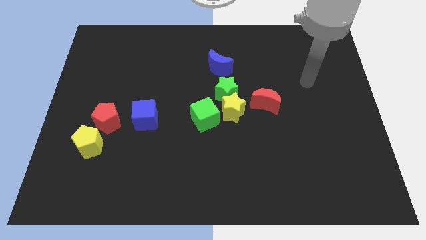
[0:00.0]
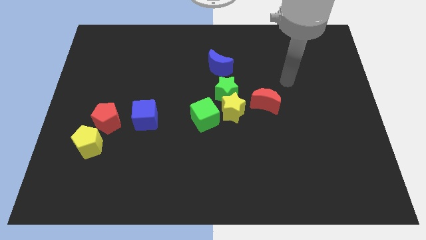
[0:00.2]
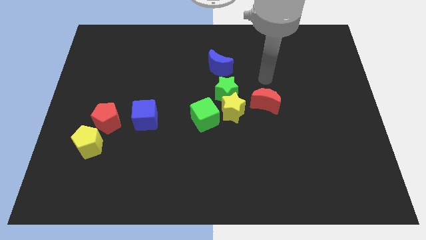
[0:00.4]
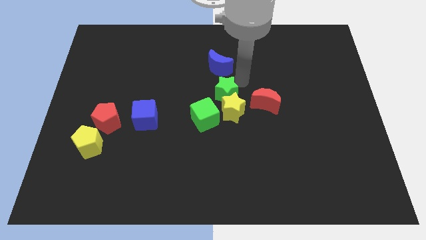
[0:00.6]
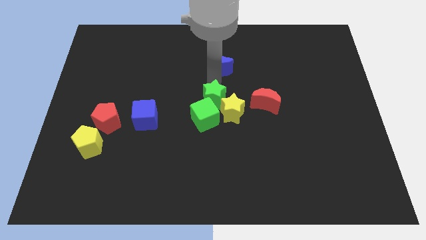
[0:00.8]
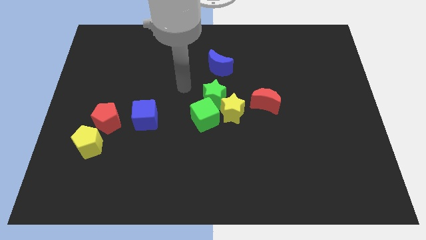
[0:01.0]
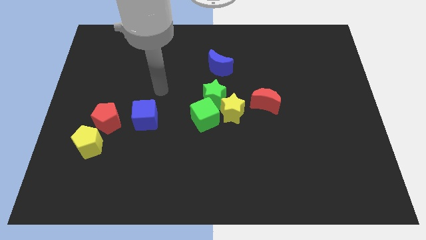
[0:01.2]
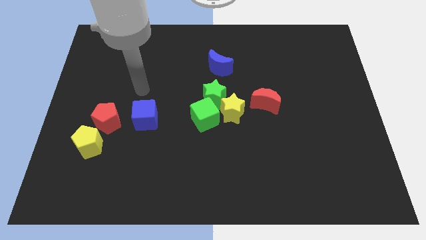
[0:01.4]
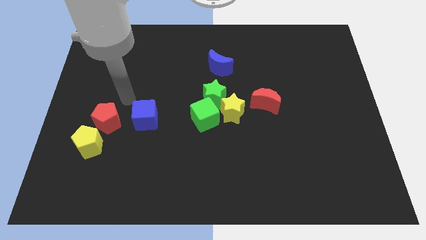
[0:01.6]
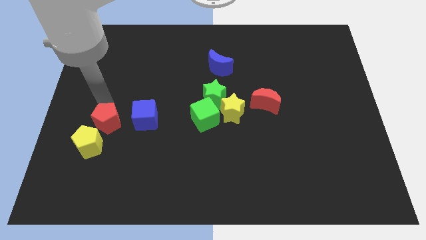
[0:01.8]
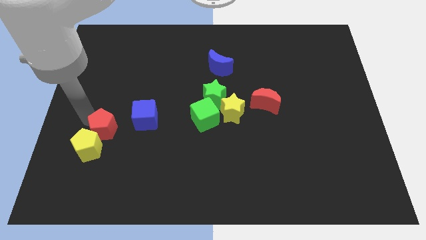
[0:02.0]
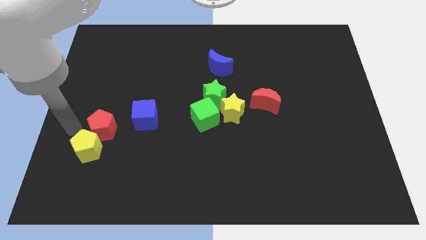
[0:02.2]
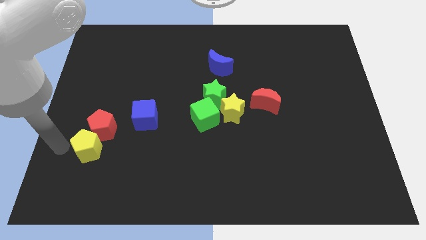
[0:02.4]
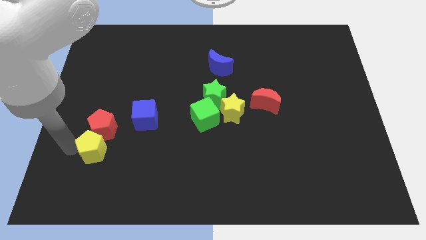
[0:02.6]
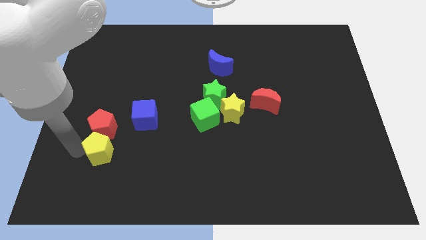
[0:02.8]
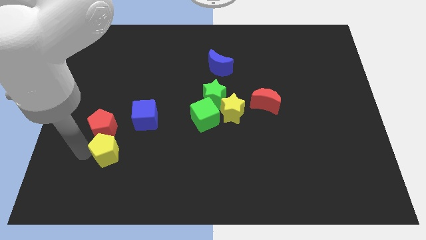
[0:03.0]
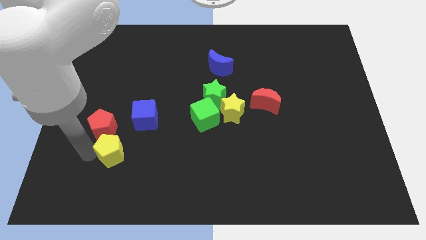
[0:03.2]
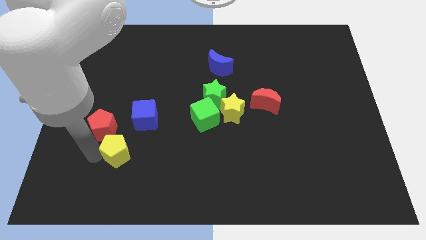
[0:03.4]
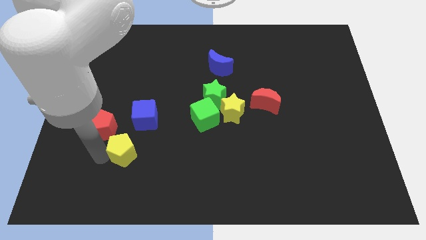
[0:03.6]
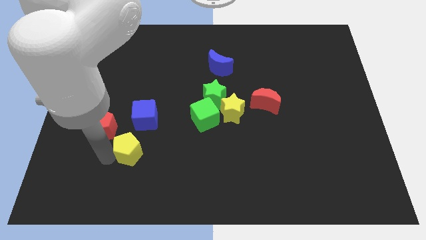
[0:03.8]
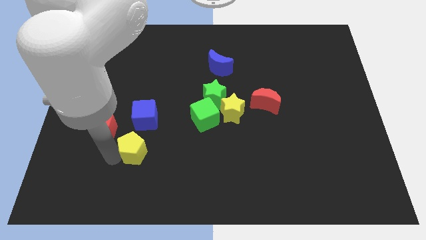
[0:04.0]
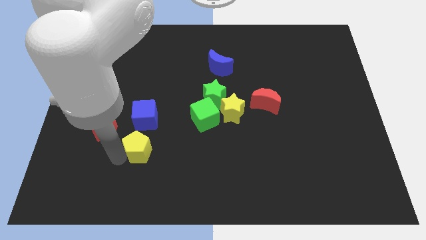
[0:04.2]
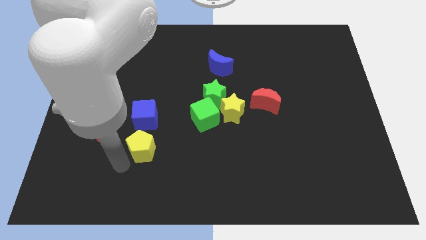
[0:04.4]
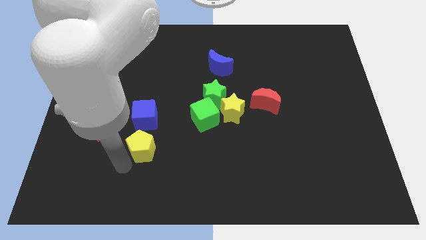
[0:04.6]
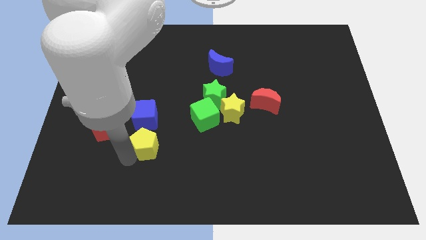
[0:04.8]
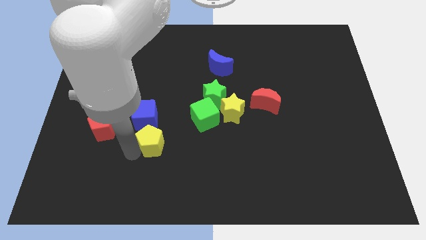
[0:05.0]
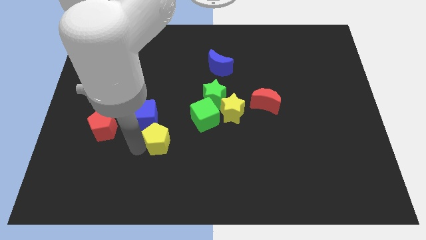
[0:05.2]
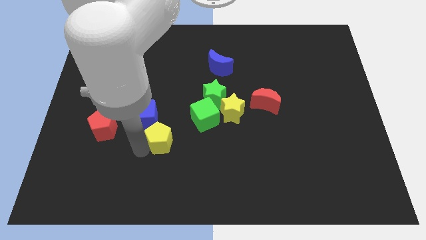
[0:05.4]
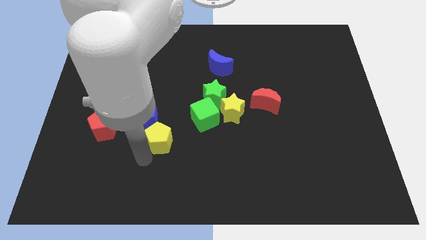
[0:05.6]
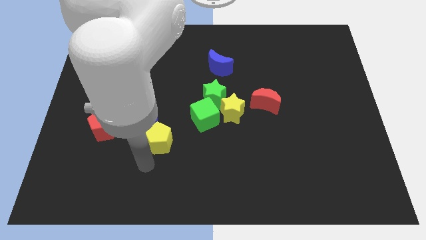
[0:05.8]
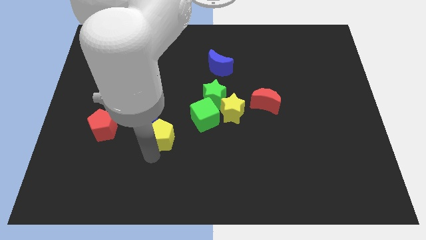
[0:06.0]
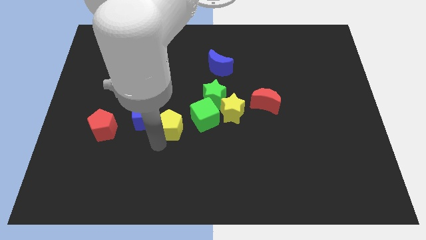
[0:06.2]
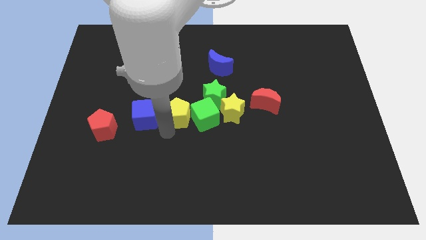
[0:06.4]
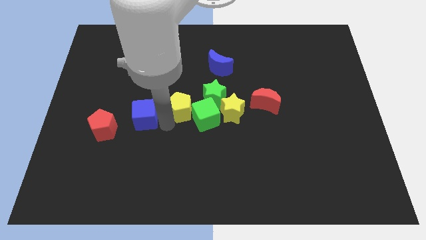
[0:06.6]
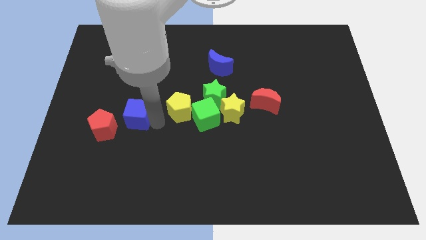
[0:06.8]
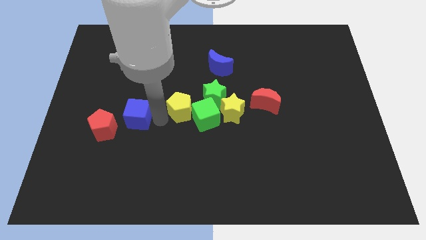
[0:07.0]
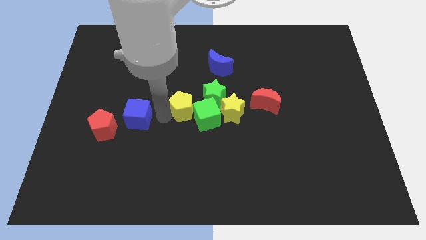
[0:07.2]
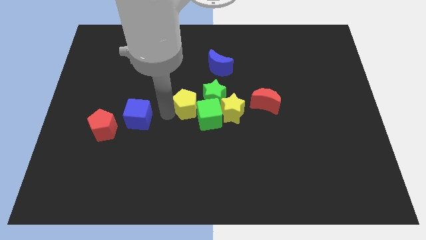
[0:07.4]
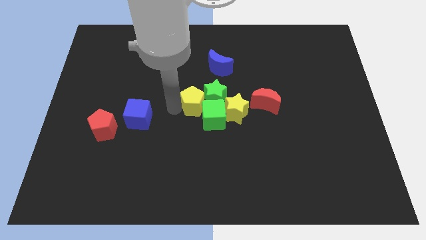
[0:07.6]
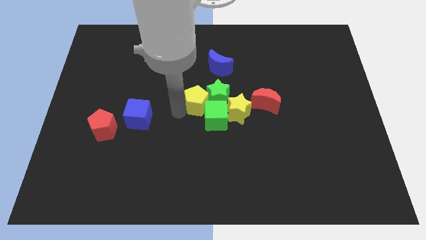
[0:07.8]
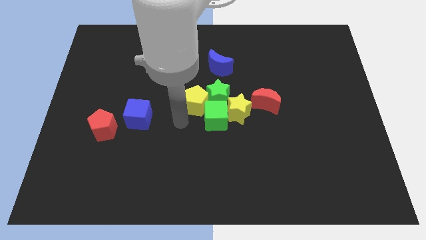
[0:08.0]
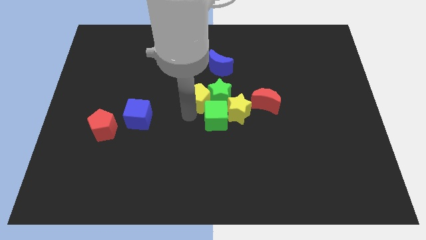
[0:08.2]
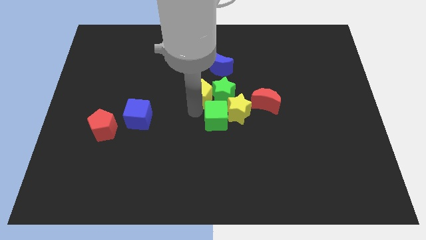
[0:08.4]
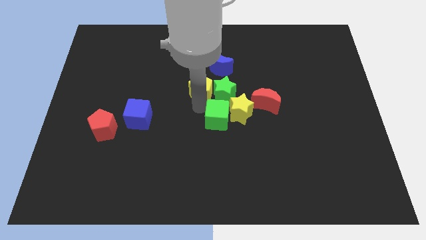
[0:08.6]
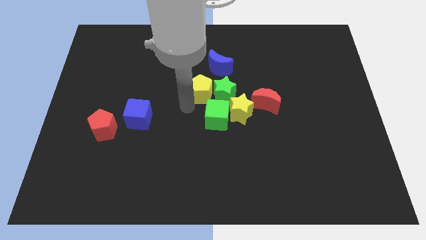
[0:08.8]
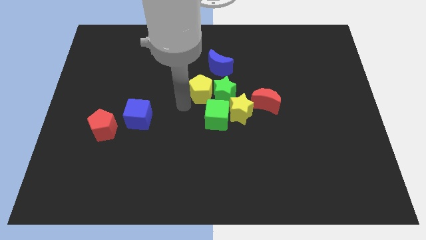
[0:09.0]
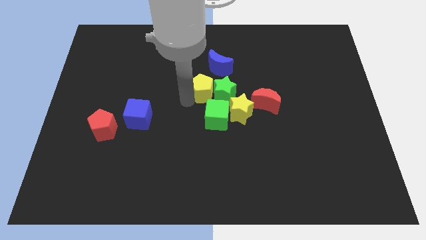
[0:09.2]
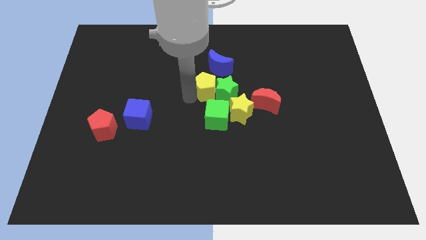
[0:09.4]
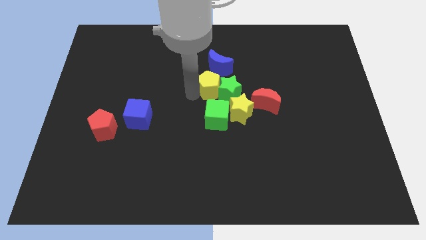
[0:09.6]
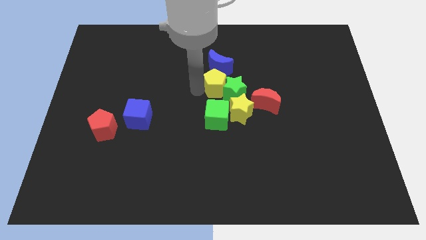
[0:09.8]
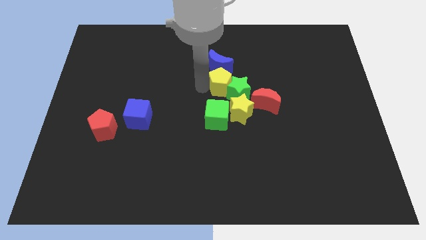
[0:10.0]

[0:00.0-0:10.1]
put the yellow pentagon above the yellow star

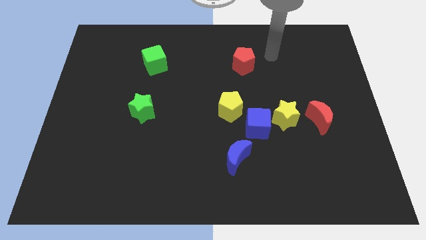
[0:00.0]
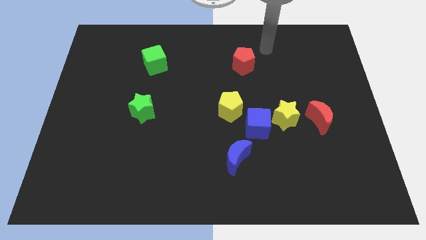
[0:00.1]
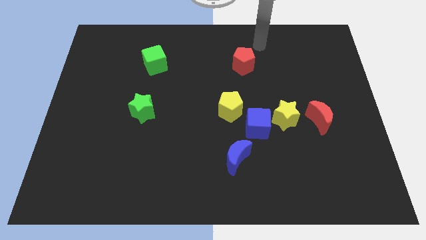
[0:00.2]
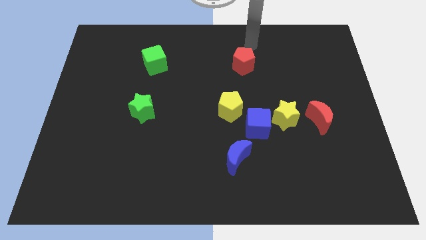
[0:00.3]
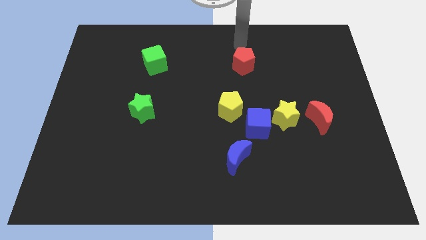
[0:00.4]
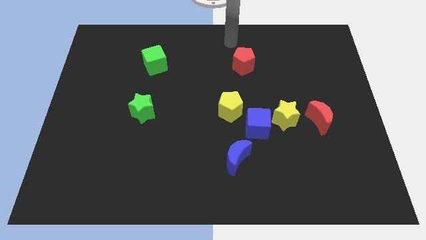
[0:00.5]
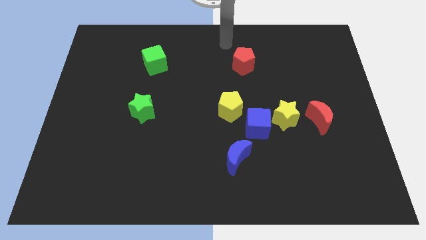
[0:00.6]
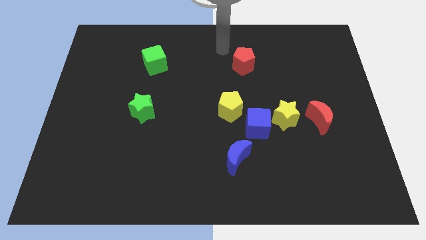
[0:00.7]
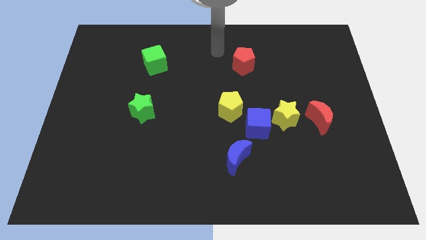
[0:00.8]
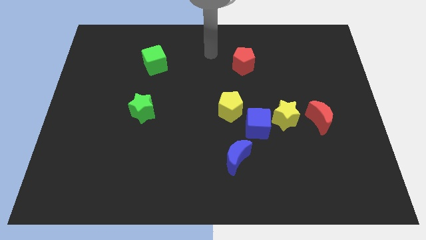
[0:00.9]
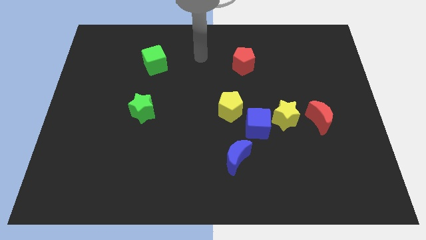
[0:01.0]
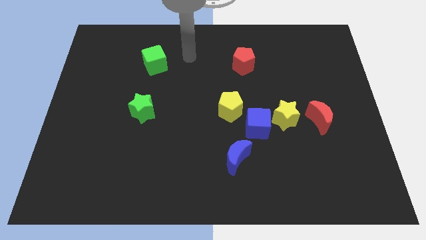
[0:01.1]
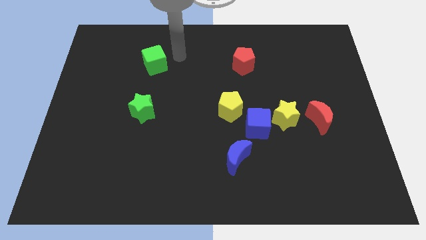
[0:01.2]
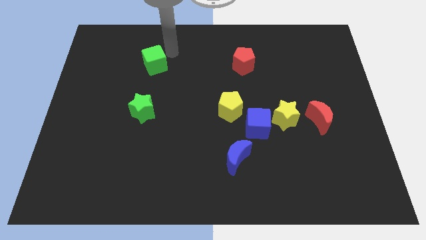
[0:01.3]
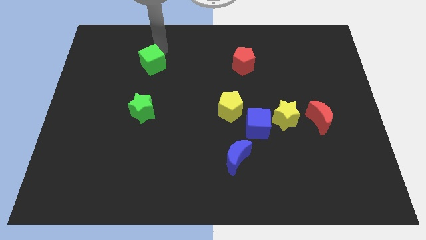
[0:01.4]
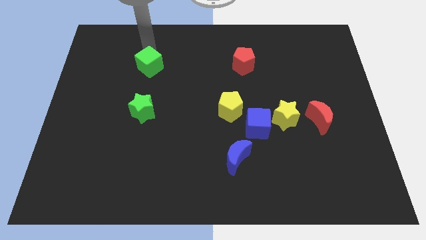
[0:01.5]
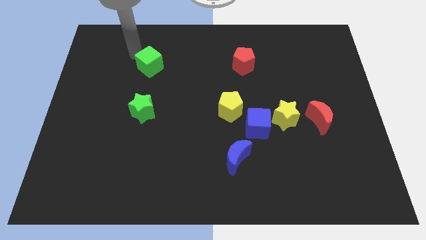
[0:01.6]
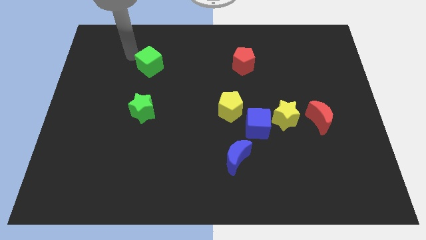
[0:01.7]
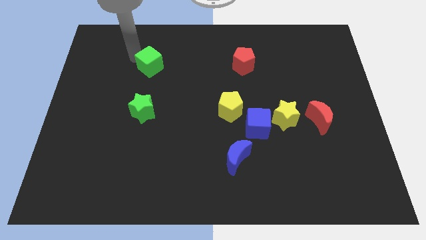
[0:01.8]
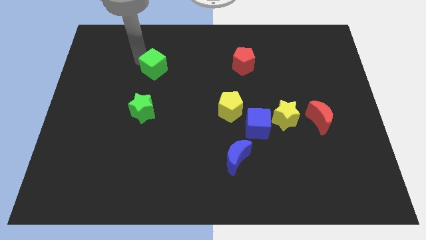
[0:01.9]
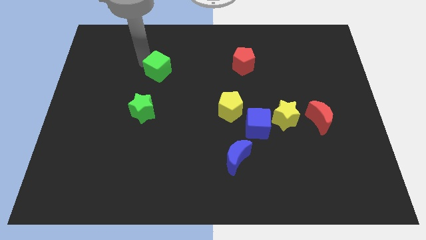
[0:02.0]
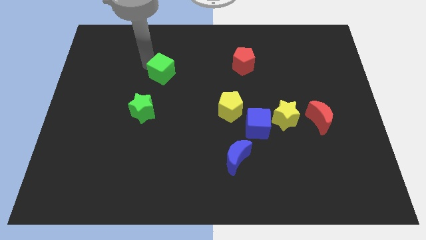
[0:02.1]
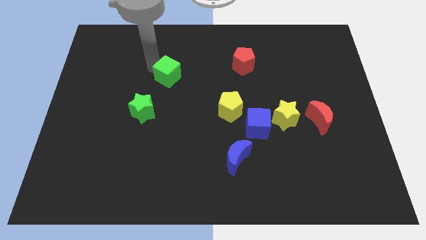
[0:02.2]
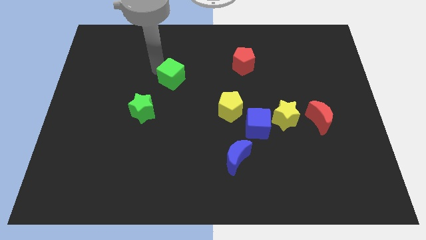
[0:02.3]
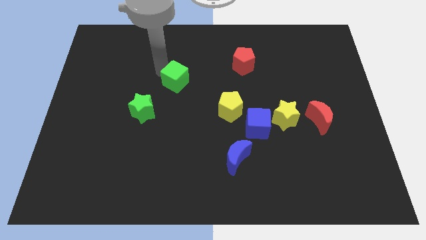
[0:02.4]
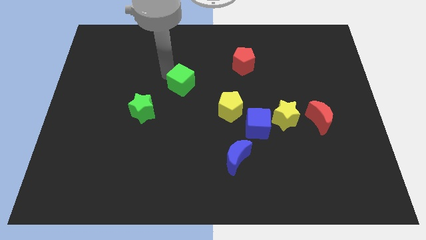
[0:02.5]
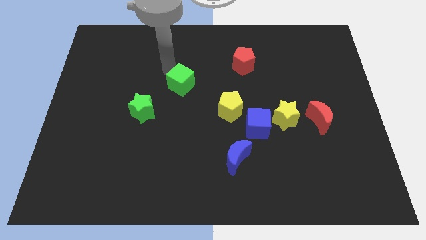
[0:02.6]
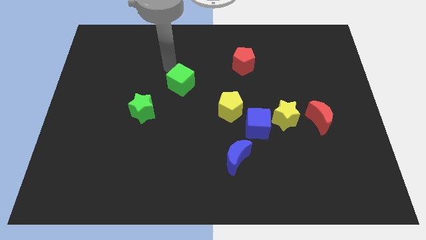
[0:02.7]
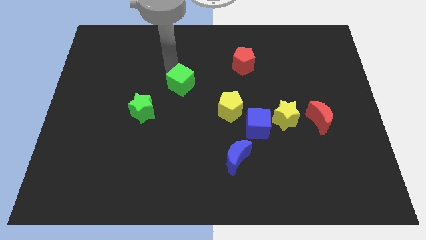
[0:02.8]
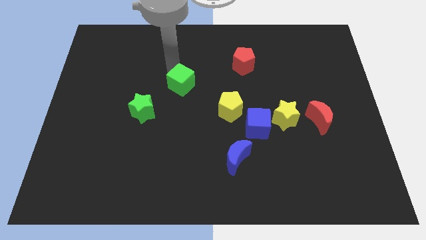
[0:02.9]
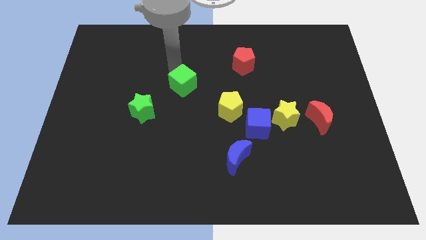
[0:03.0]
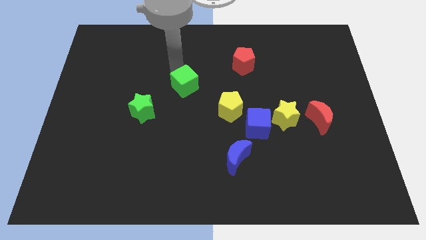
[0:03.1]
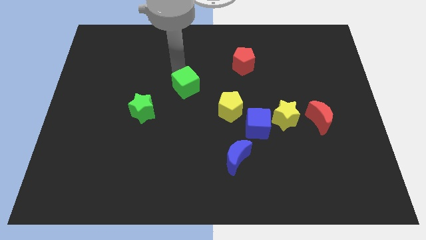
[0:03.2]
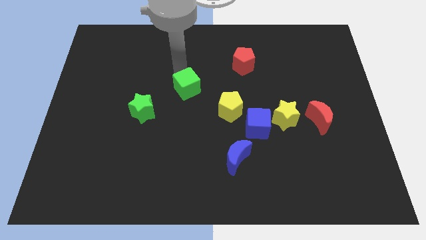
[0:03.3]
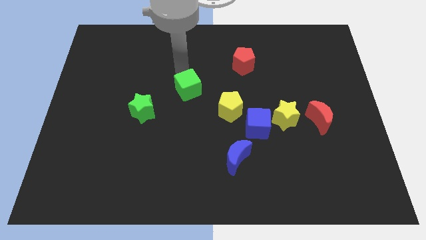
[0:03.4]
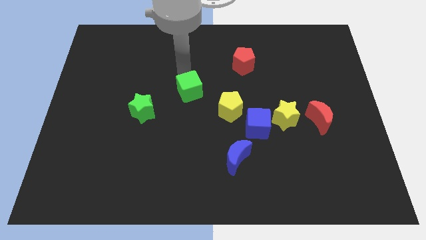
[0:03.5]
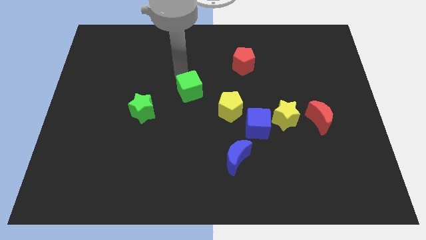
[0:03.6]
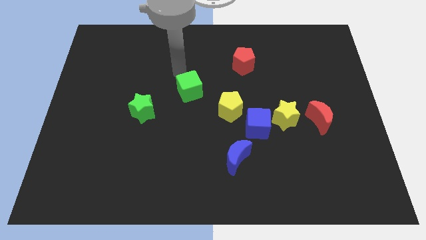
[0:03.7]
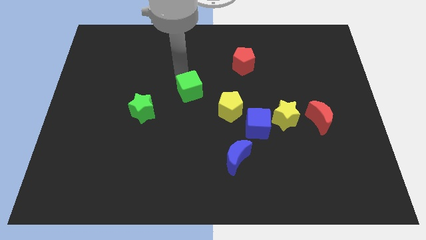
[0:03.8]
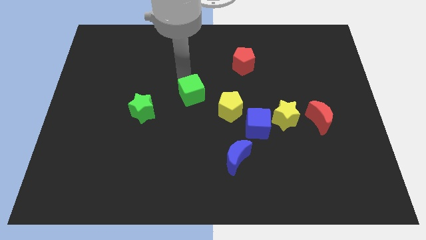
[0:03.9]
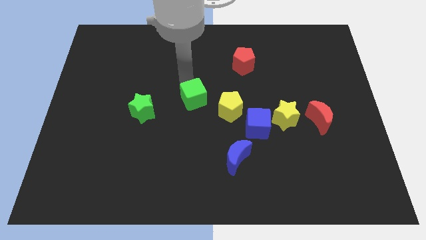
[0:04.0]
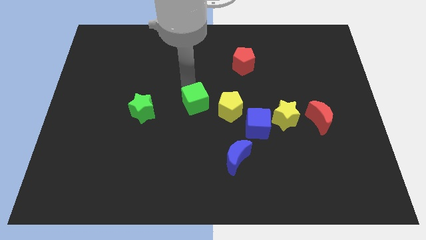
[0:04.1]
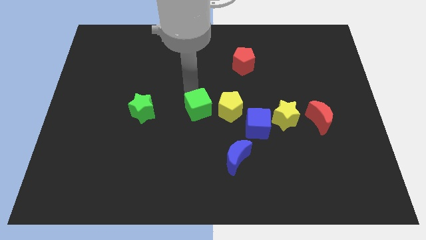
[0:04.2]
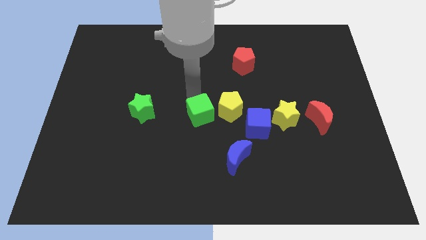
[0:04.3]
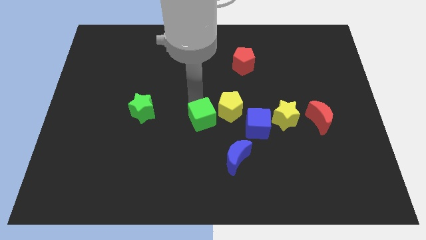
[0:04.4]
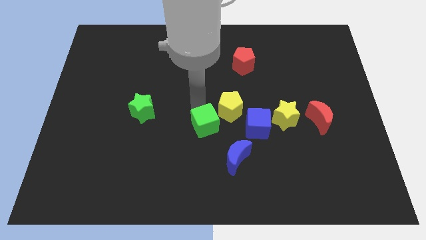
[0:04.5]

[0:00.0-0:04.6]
put the green cube to the top left of the blue moon
